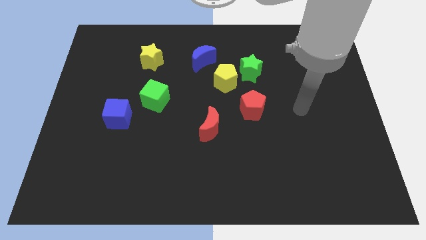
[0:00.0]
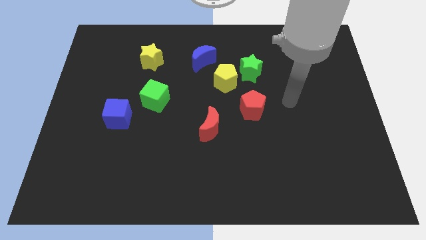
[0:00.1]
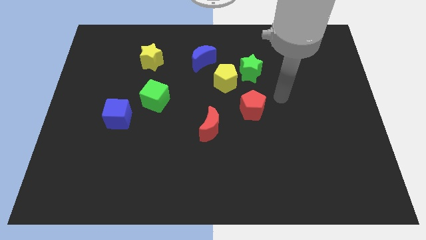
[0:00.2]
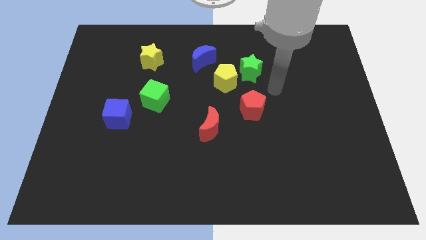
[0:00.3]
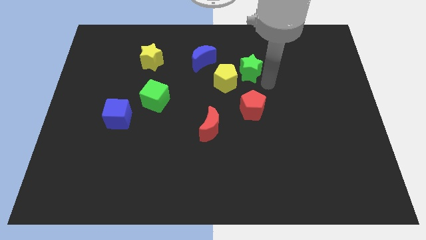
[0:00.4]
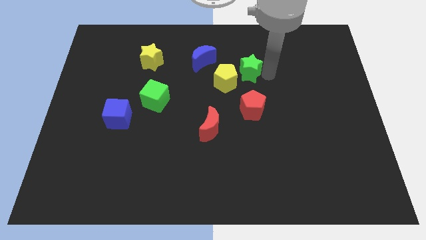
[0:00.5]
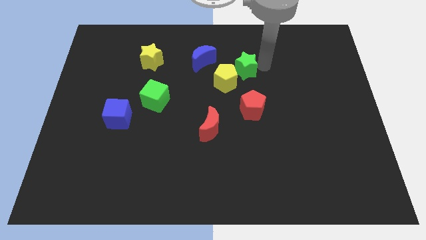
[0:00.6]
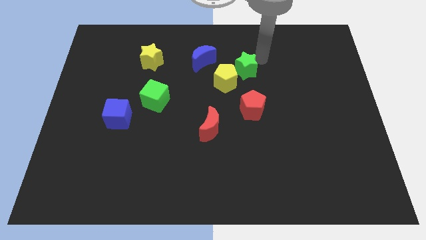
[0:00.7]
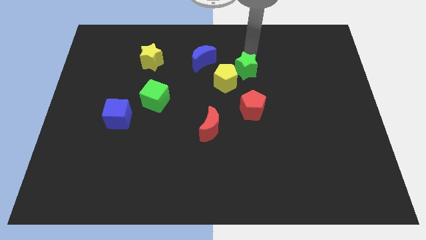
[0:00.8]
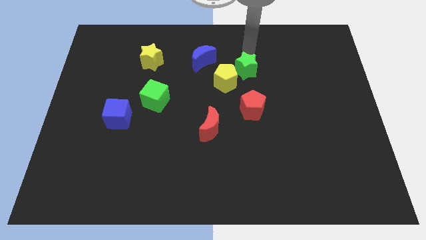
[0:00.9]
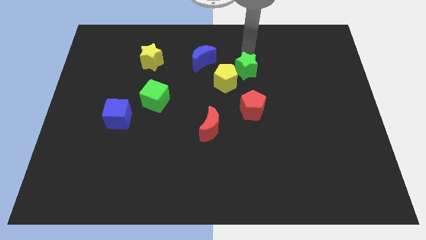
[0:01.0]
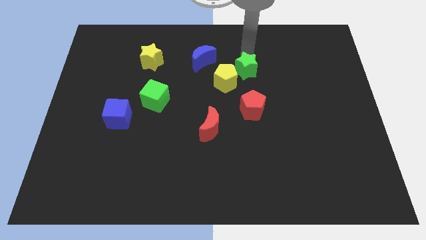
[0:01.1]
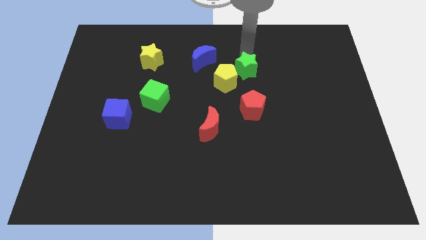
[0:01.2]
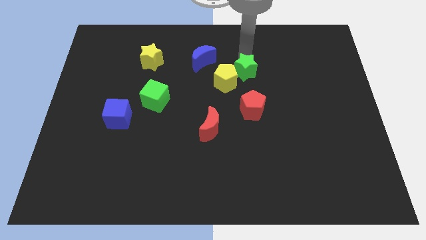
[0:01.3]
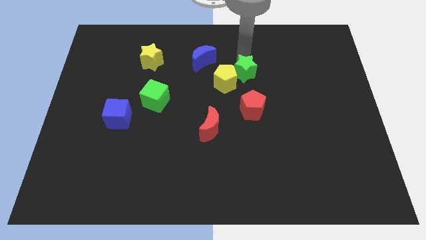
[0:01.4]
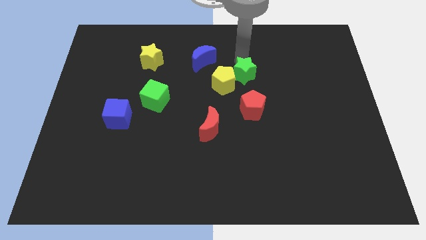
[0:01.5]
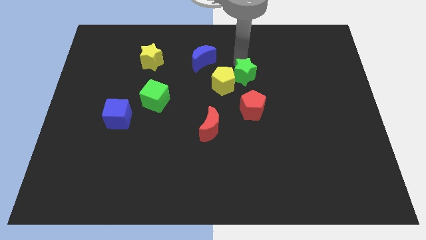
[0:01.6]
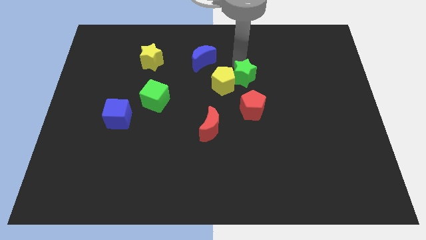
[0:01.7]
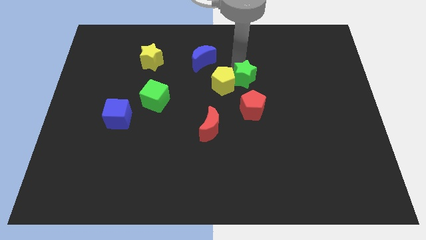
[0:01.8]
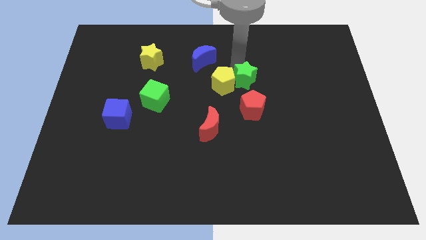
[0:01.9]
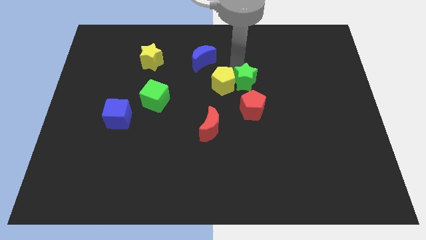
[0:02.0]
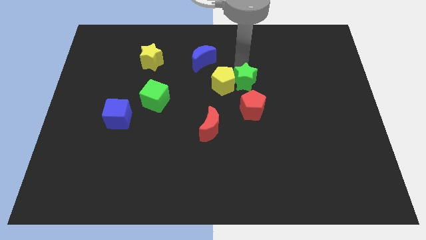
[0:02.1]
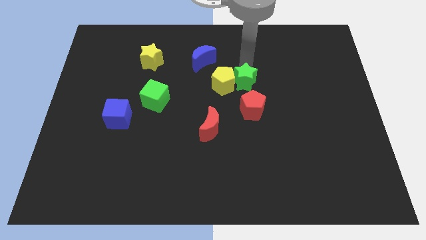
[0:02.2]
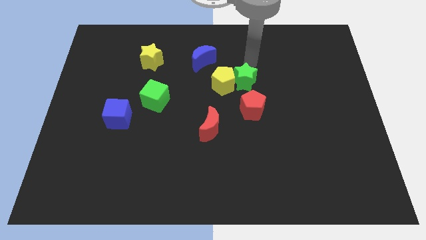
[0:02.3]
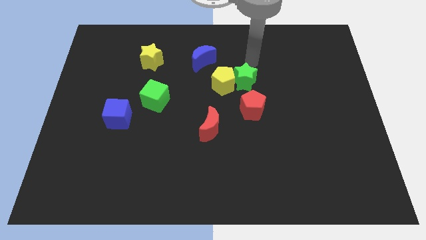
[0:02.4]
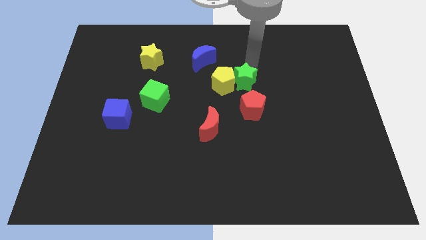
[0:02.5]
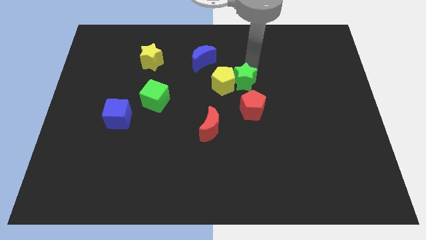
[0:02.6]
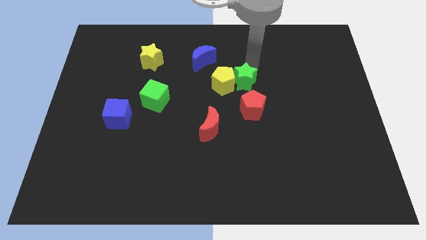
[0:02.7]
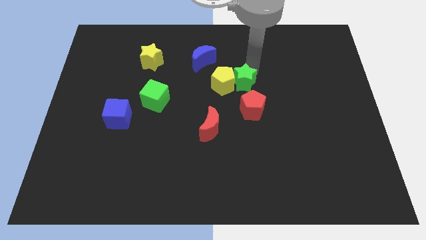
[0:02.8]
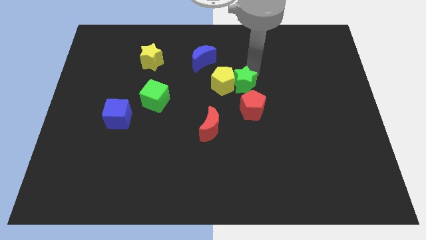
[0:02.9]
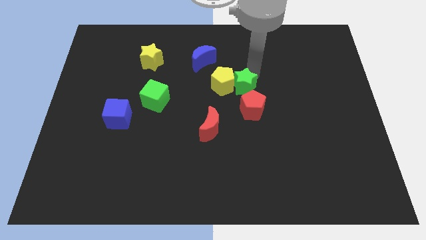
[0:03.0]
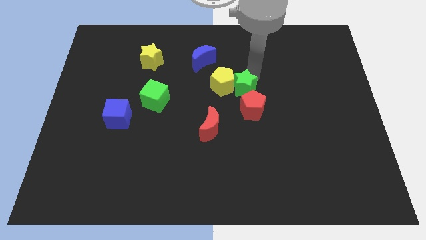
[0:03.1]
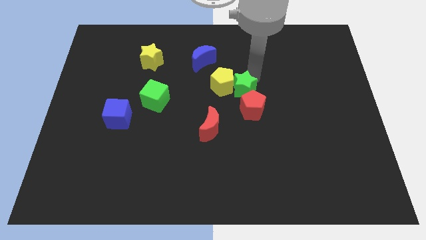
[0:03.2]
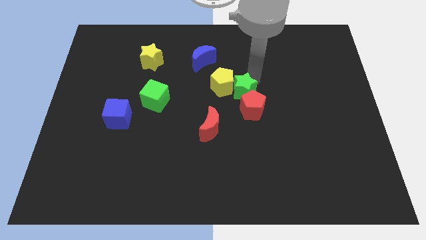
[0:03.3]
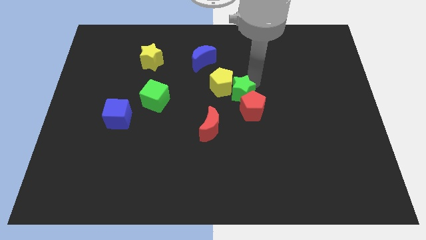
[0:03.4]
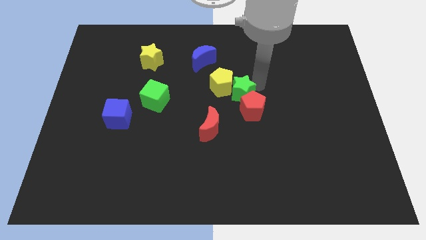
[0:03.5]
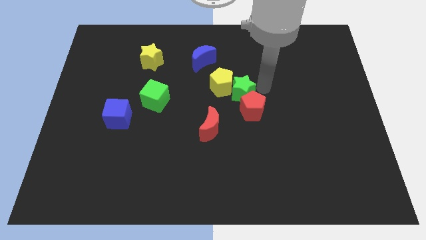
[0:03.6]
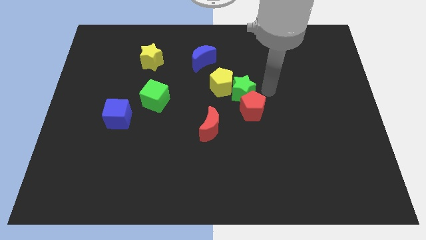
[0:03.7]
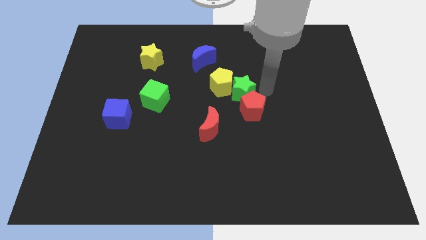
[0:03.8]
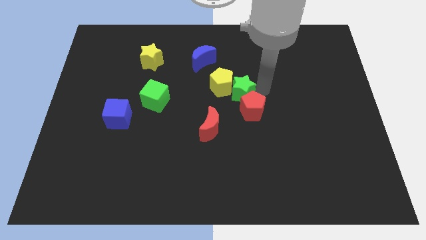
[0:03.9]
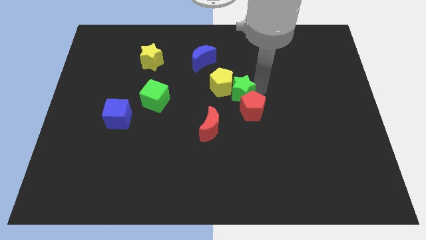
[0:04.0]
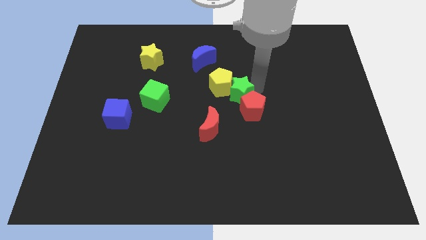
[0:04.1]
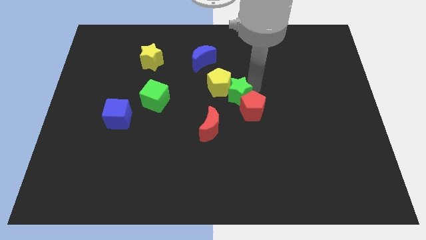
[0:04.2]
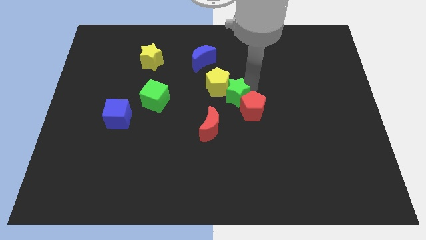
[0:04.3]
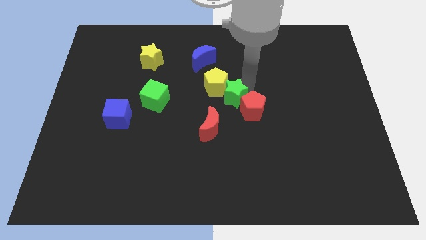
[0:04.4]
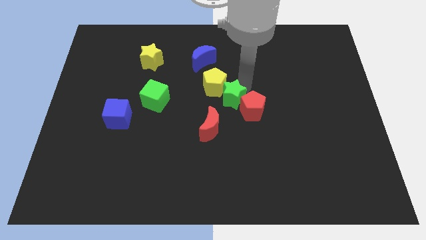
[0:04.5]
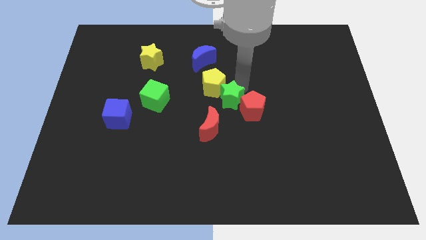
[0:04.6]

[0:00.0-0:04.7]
push the green star above the red moon

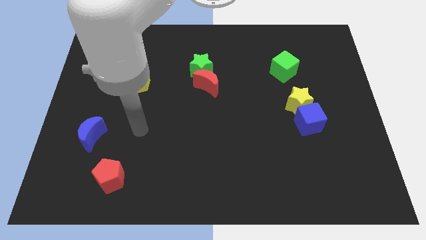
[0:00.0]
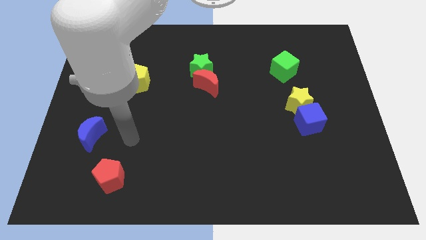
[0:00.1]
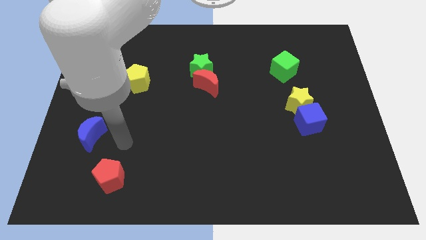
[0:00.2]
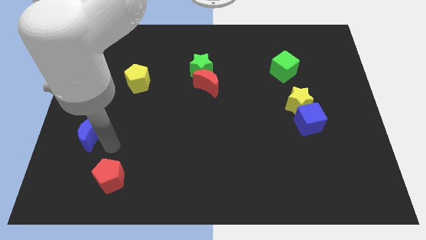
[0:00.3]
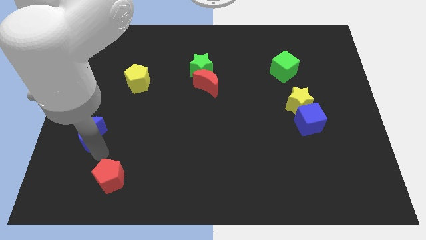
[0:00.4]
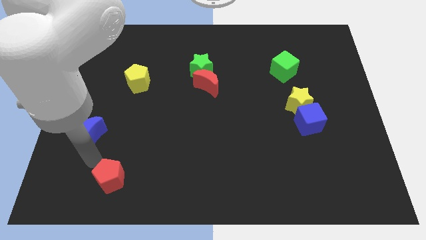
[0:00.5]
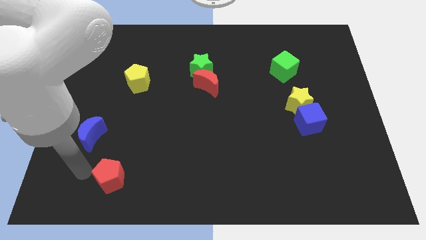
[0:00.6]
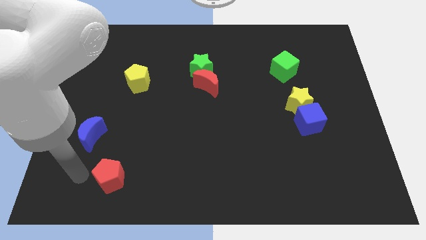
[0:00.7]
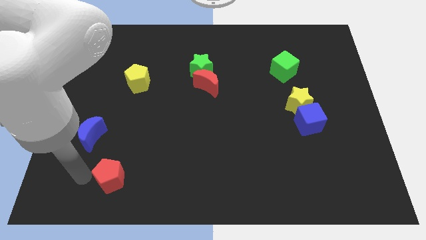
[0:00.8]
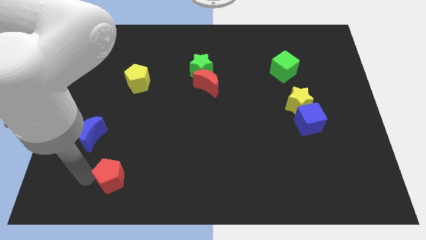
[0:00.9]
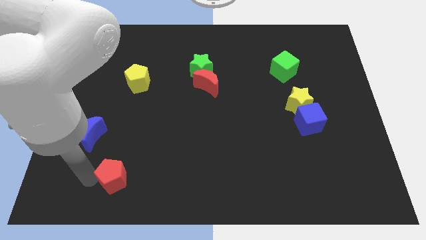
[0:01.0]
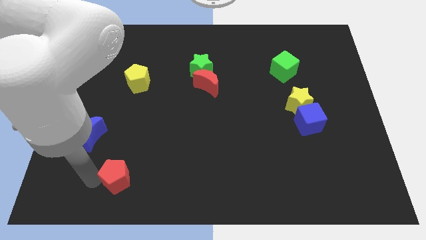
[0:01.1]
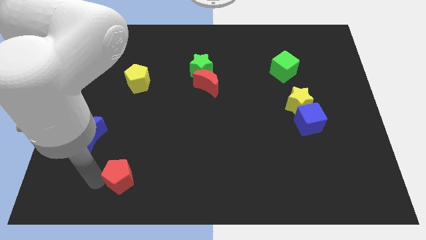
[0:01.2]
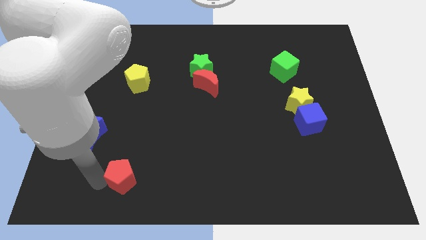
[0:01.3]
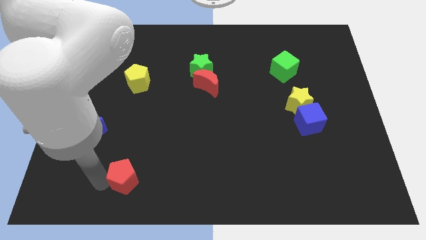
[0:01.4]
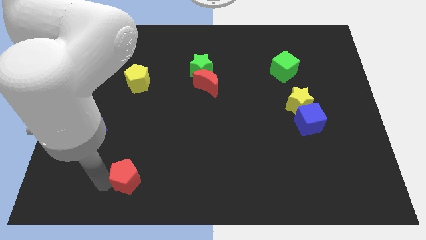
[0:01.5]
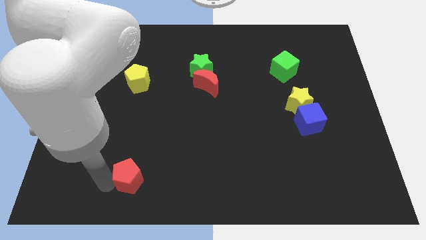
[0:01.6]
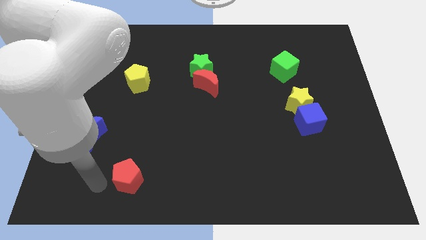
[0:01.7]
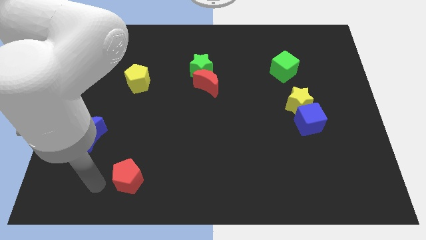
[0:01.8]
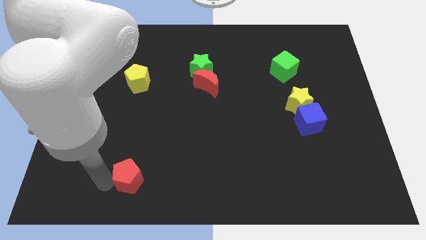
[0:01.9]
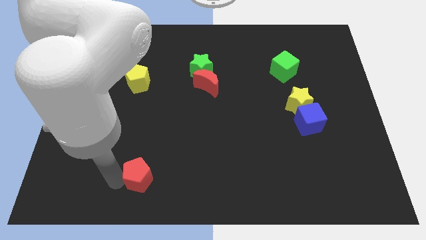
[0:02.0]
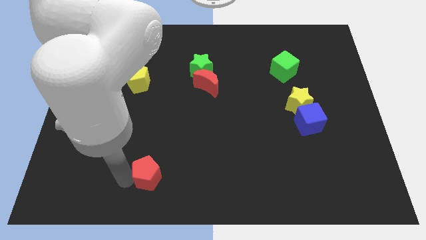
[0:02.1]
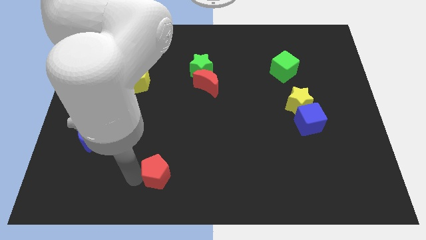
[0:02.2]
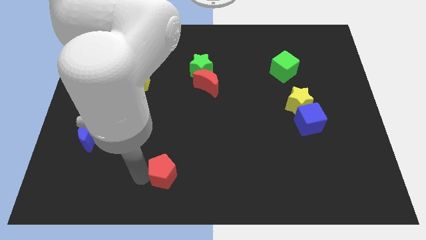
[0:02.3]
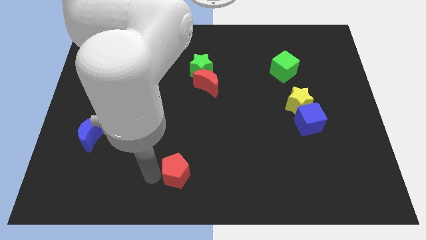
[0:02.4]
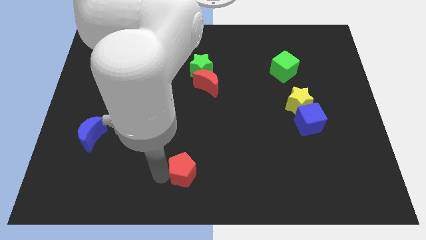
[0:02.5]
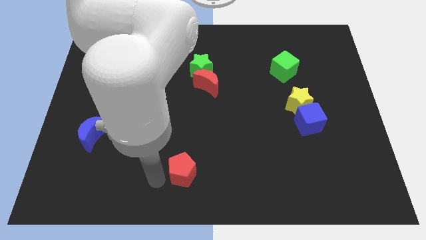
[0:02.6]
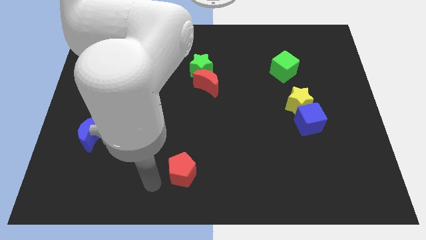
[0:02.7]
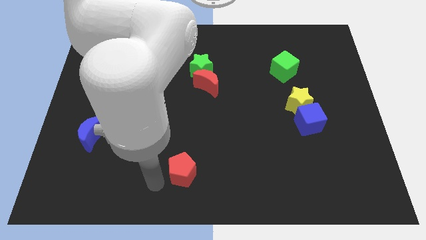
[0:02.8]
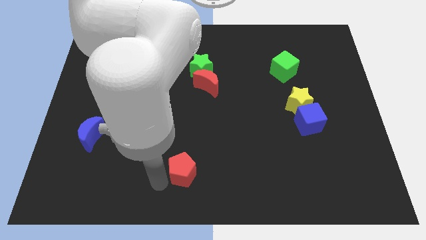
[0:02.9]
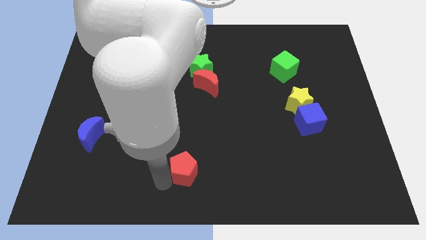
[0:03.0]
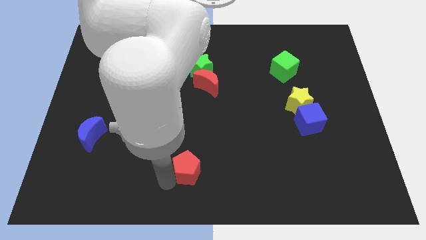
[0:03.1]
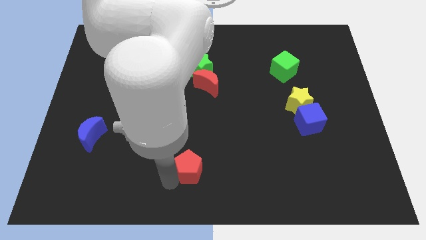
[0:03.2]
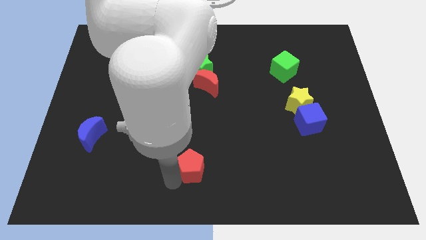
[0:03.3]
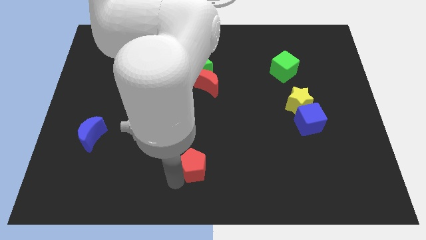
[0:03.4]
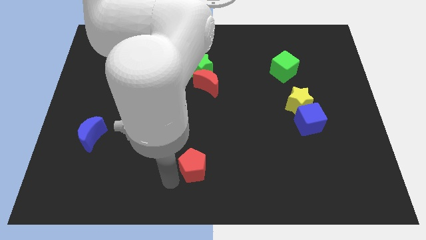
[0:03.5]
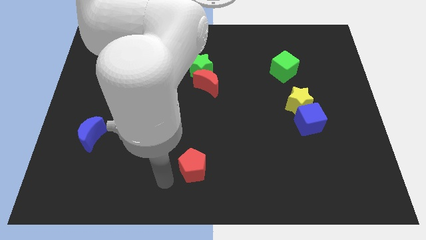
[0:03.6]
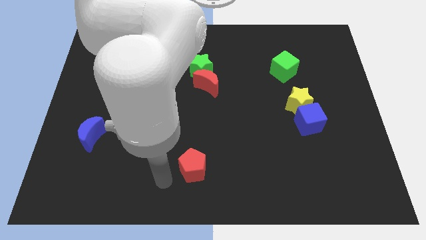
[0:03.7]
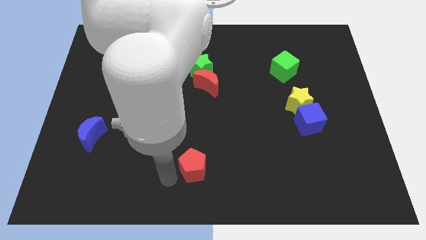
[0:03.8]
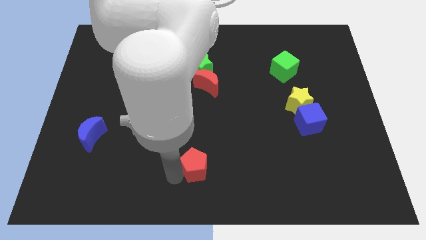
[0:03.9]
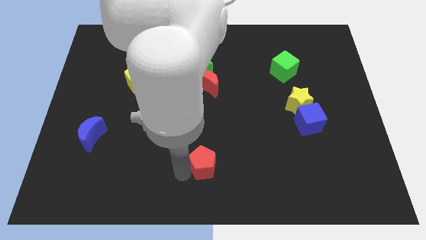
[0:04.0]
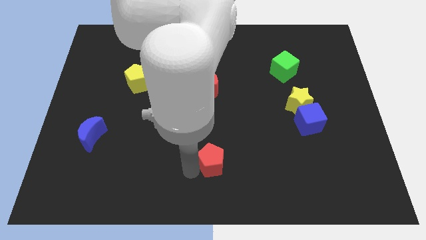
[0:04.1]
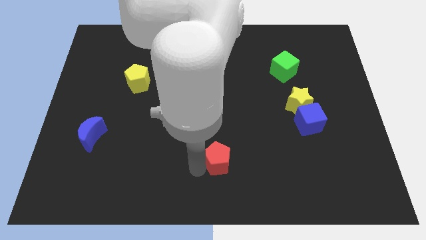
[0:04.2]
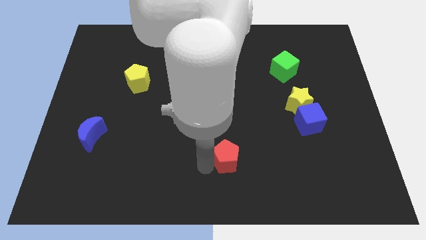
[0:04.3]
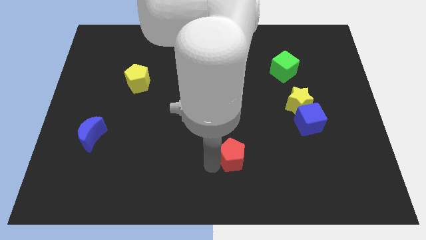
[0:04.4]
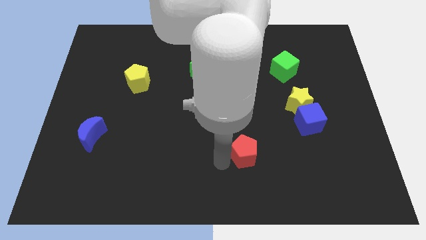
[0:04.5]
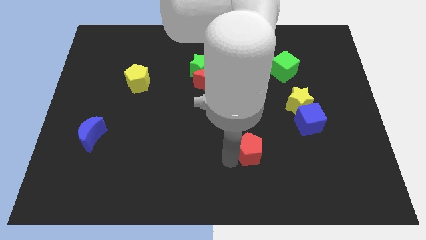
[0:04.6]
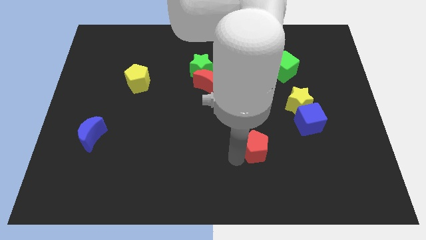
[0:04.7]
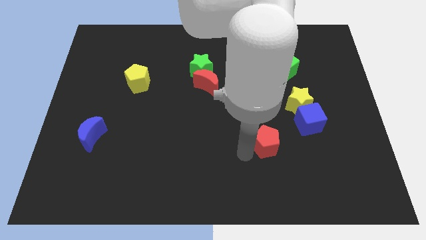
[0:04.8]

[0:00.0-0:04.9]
move the red pentagon to the bottom left of the blue cube
